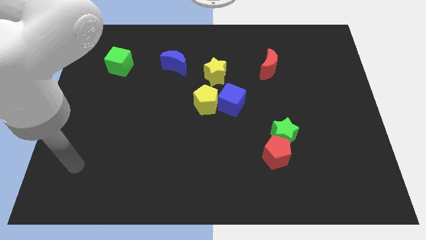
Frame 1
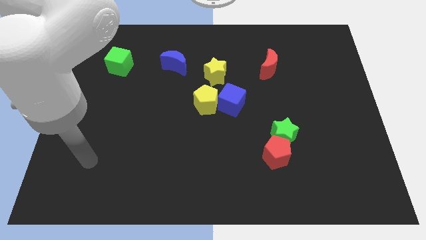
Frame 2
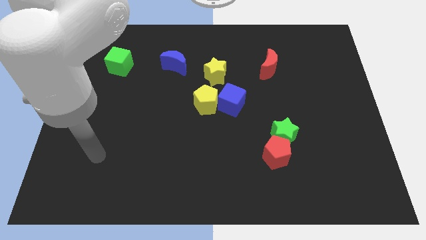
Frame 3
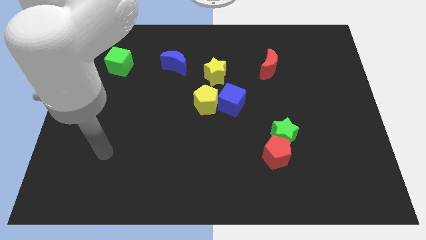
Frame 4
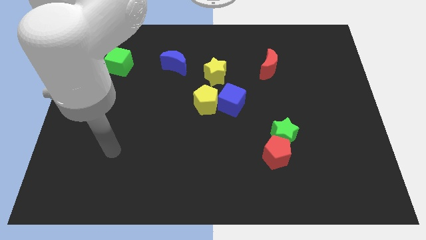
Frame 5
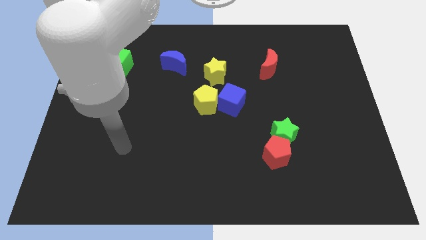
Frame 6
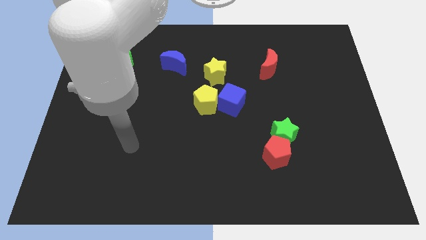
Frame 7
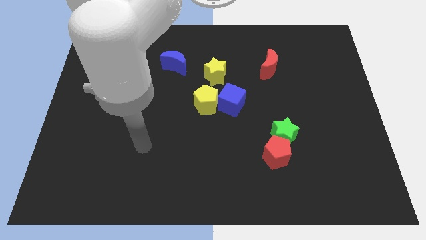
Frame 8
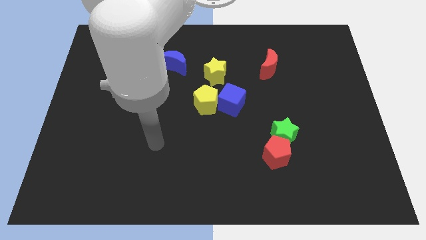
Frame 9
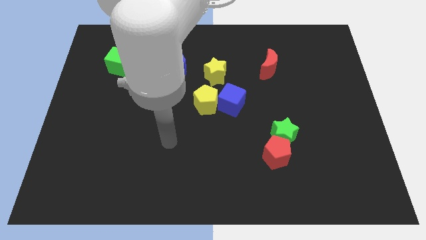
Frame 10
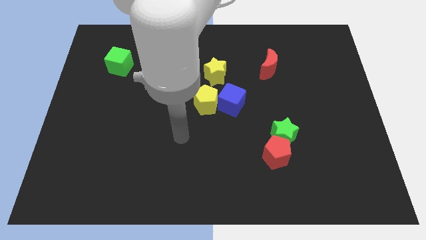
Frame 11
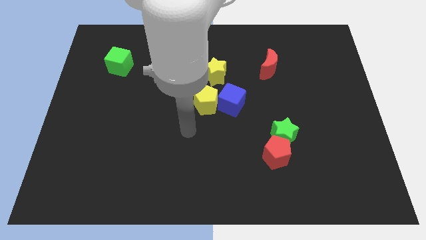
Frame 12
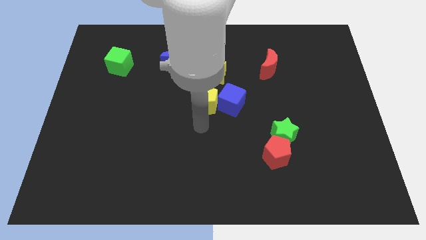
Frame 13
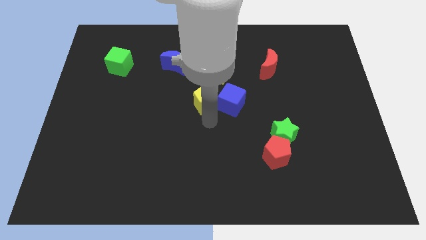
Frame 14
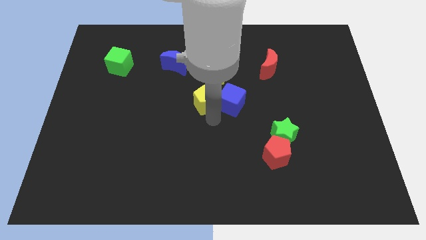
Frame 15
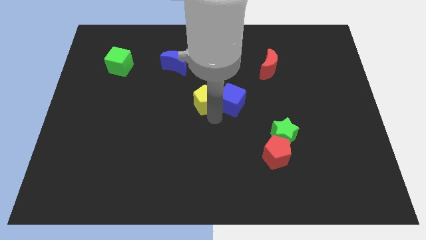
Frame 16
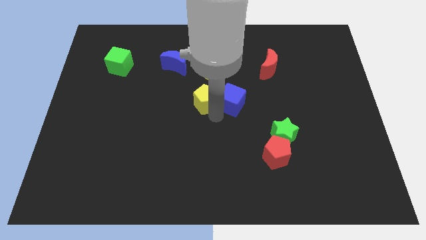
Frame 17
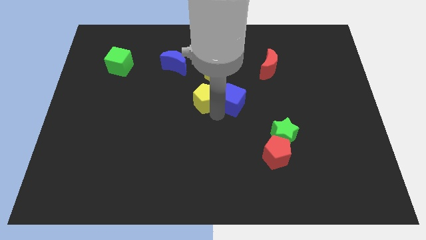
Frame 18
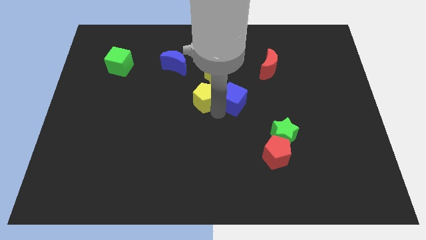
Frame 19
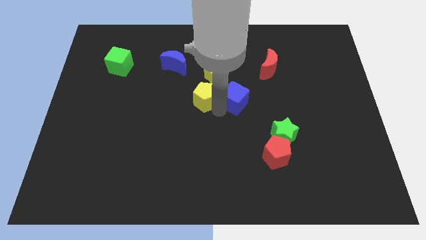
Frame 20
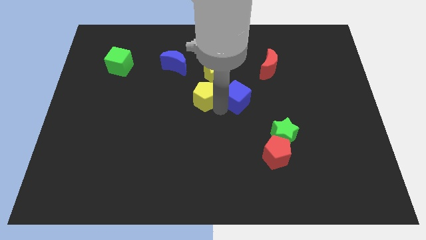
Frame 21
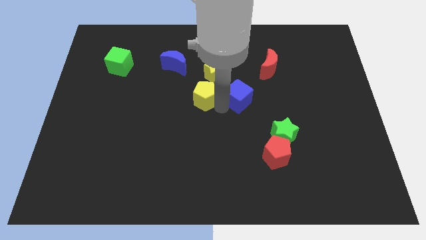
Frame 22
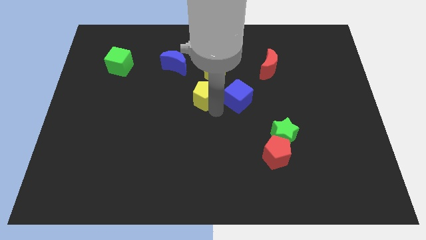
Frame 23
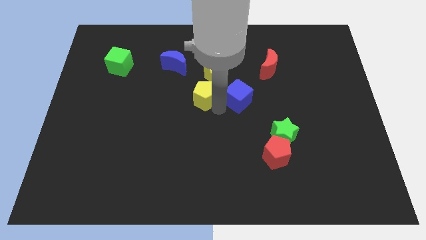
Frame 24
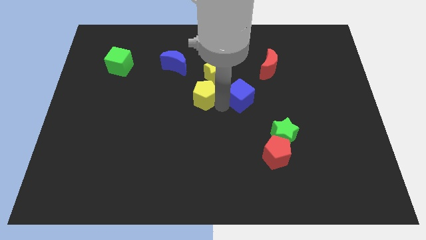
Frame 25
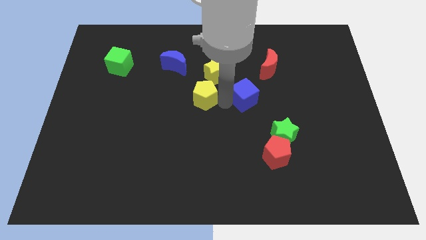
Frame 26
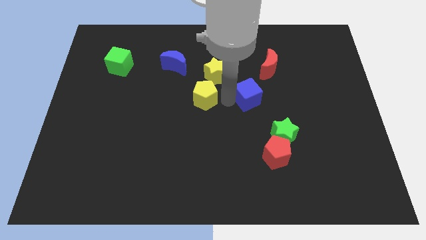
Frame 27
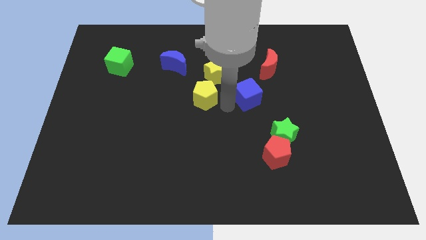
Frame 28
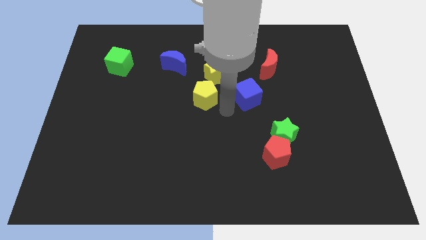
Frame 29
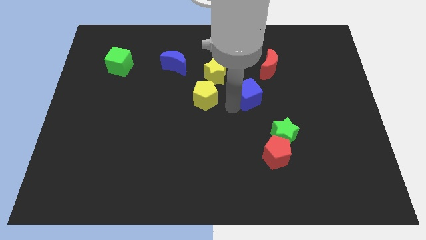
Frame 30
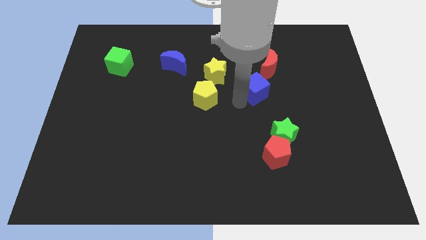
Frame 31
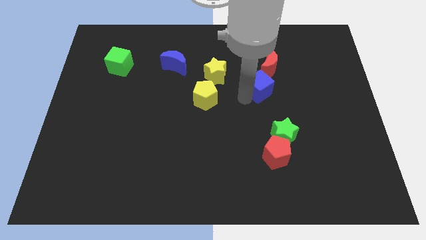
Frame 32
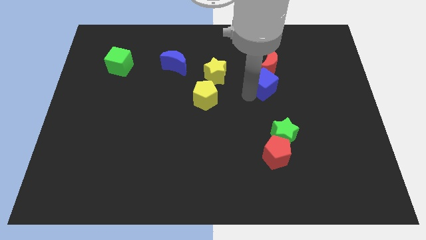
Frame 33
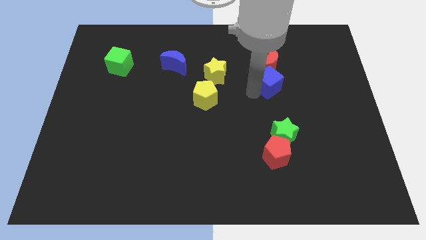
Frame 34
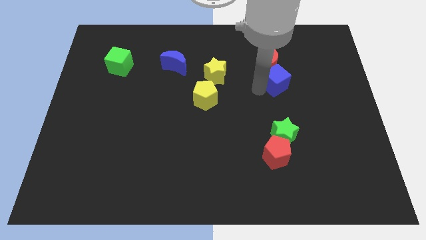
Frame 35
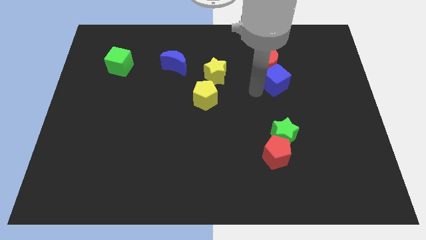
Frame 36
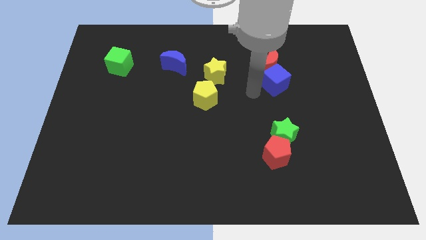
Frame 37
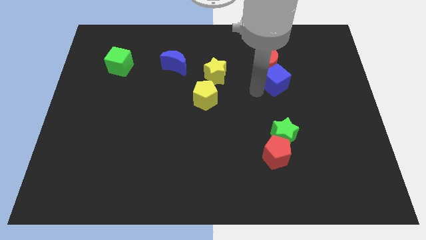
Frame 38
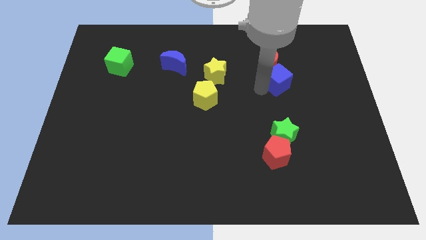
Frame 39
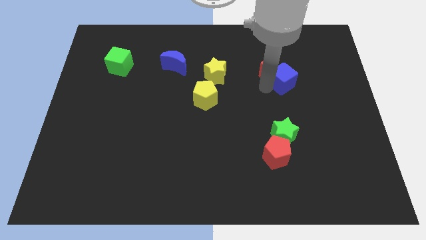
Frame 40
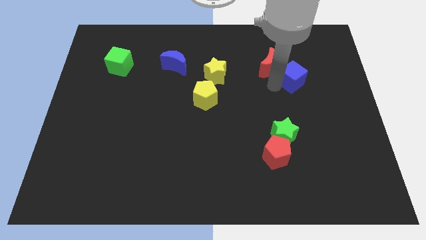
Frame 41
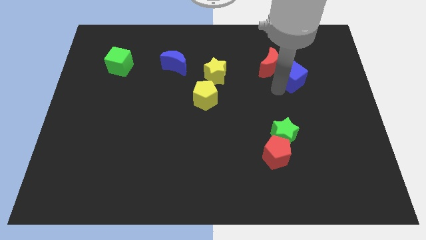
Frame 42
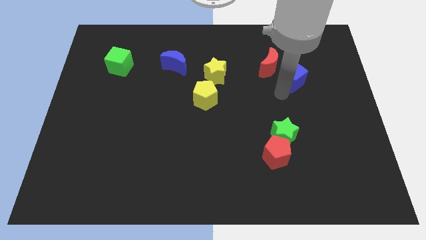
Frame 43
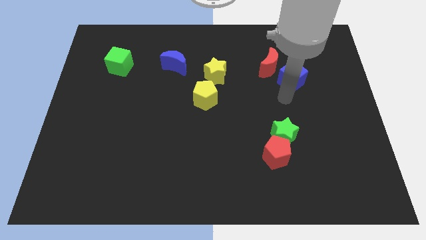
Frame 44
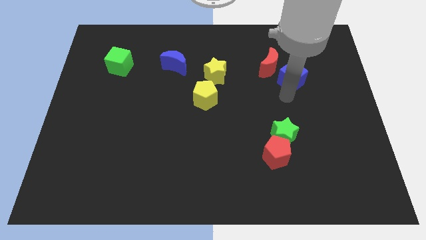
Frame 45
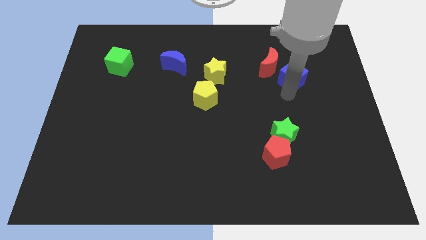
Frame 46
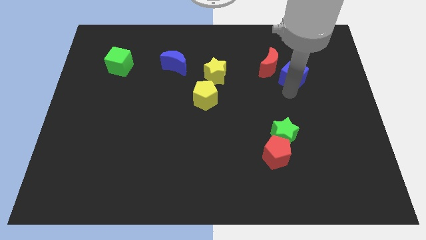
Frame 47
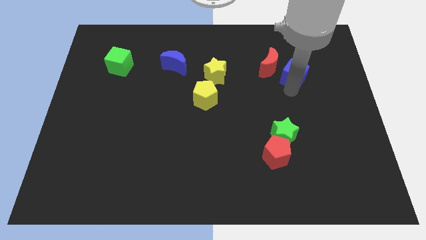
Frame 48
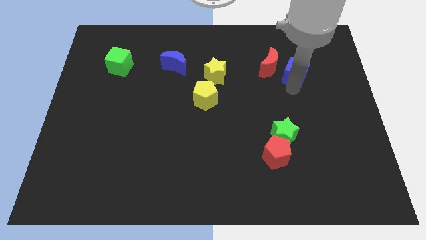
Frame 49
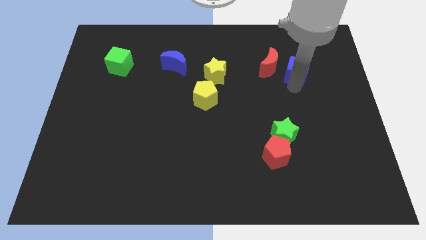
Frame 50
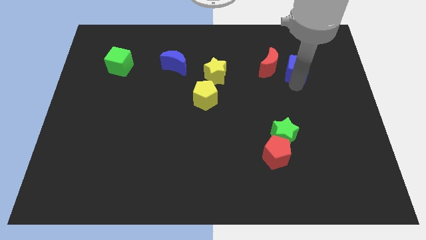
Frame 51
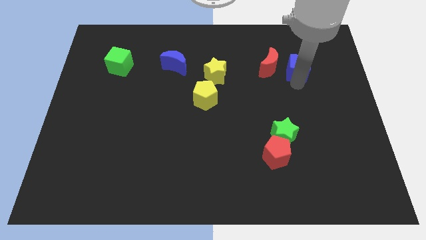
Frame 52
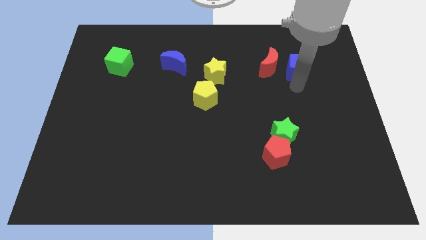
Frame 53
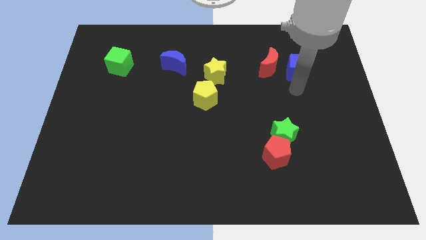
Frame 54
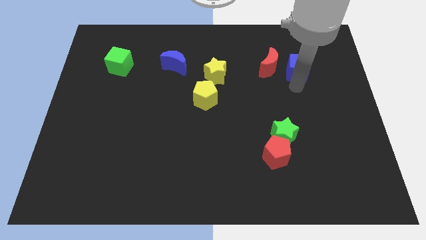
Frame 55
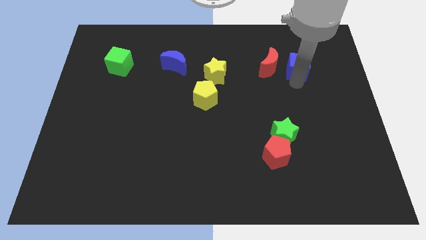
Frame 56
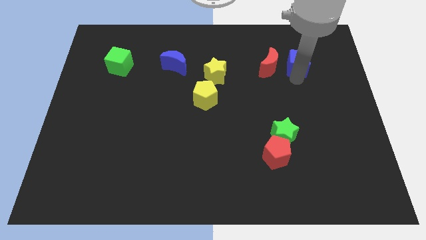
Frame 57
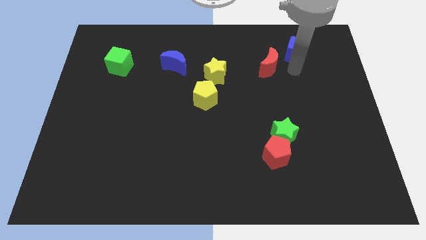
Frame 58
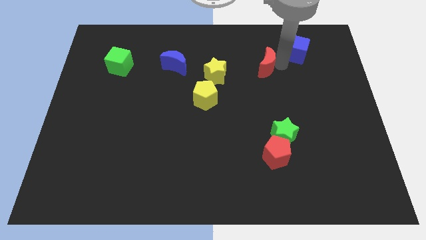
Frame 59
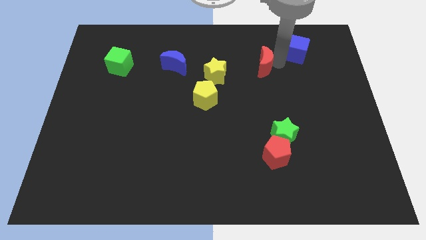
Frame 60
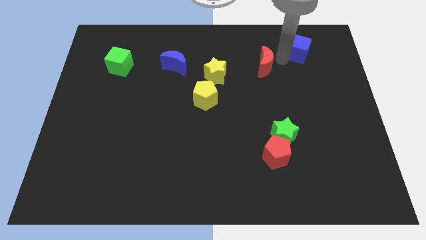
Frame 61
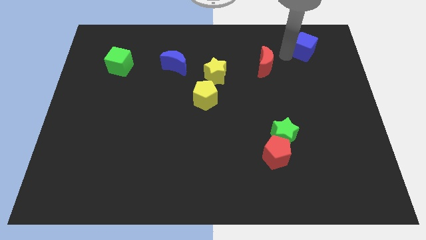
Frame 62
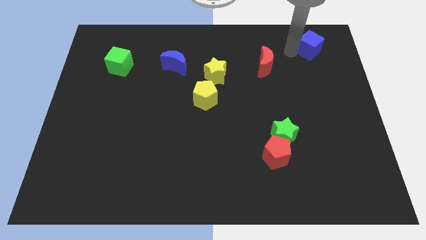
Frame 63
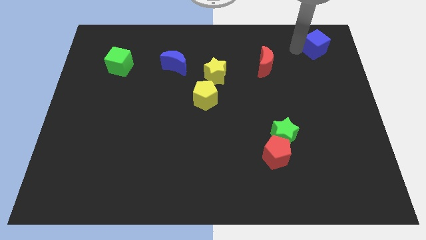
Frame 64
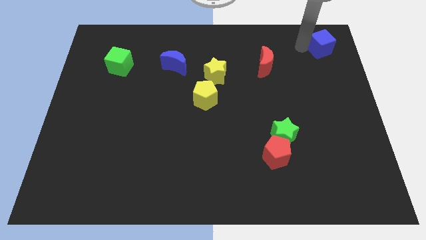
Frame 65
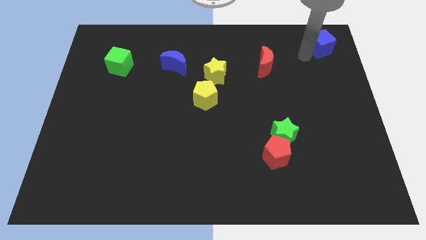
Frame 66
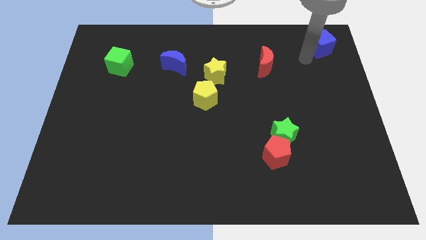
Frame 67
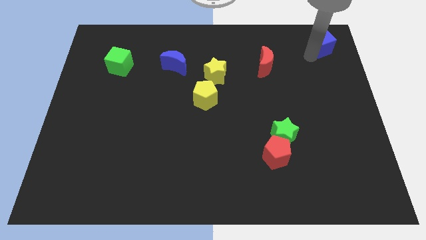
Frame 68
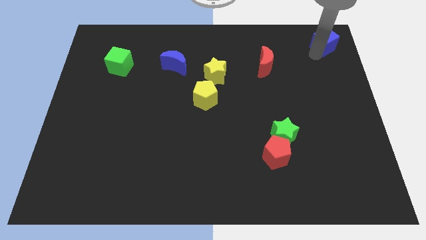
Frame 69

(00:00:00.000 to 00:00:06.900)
slide the blue cube to the upper right corner
